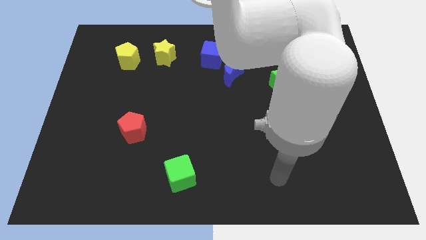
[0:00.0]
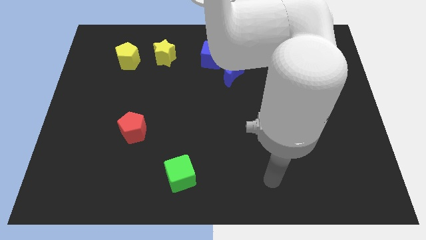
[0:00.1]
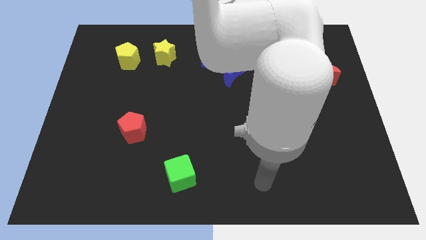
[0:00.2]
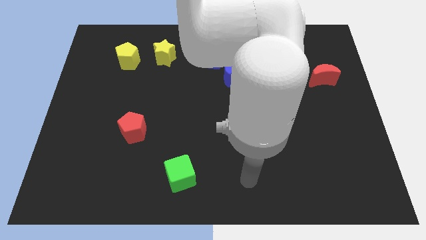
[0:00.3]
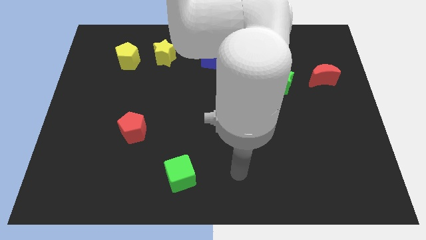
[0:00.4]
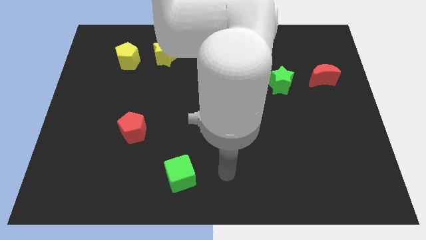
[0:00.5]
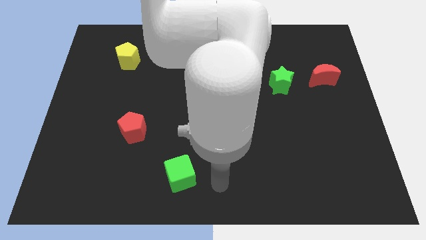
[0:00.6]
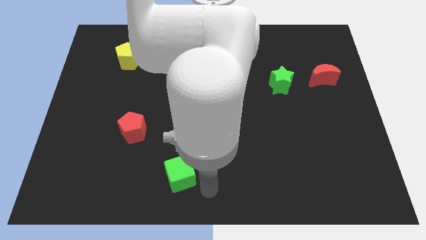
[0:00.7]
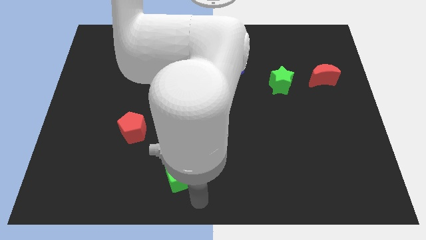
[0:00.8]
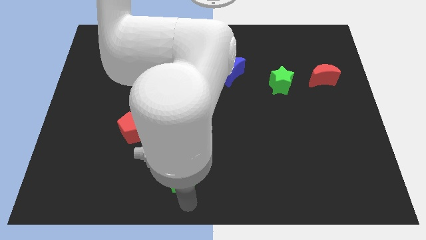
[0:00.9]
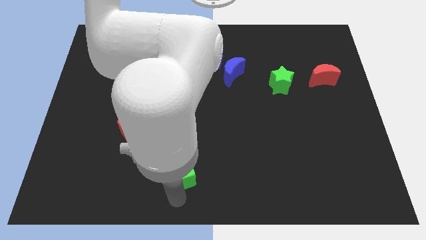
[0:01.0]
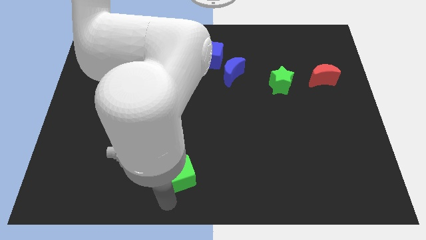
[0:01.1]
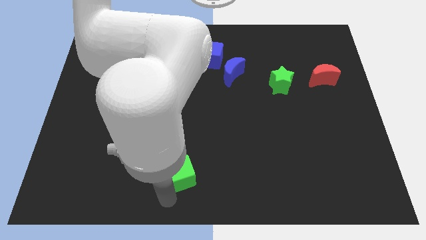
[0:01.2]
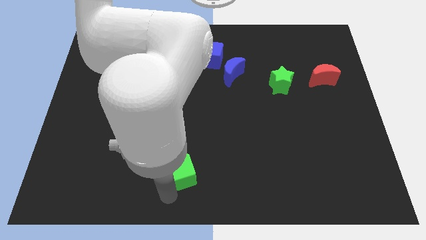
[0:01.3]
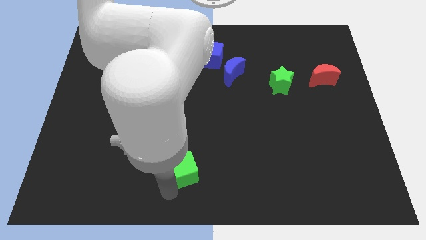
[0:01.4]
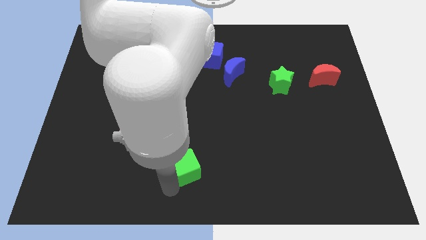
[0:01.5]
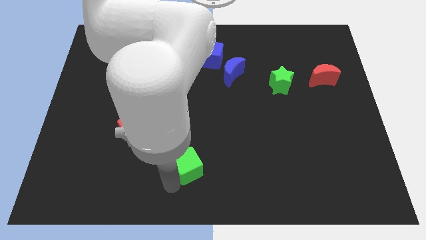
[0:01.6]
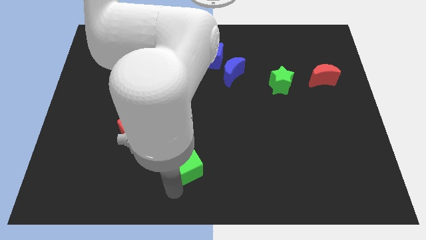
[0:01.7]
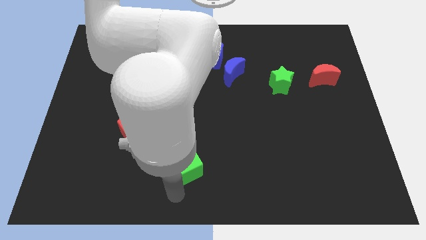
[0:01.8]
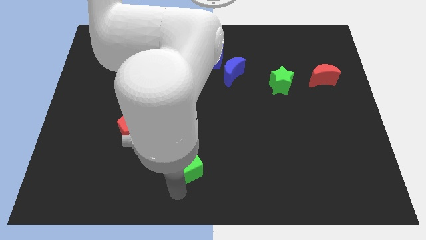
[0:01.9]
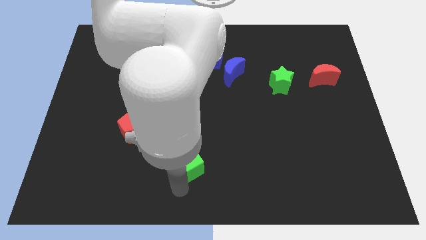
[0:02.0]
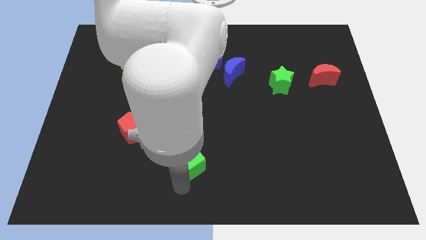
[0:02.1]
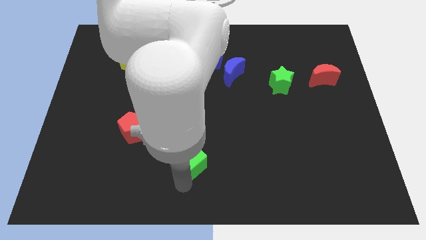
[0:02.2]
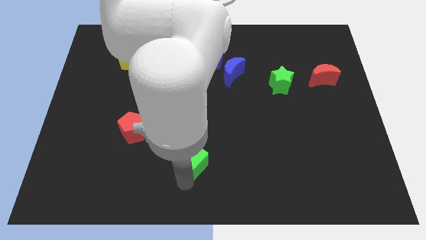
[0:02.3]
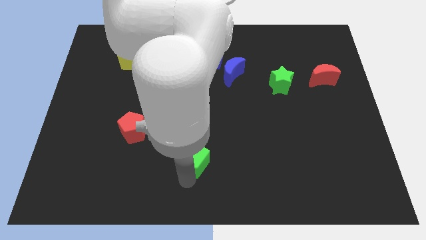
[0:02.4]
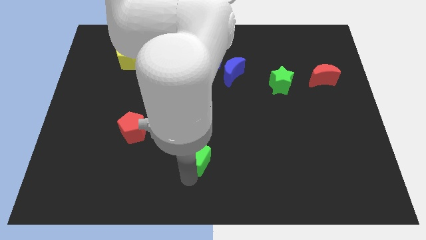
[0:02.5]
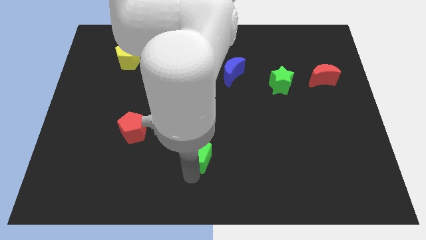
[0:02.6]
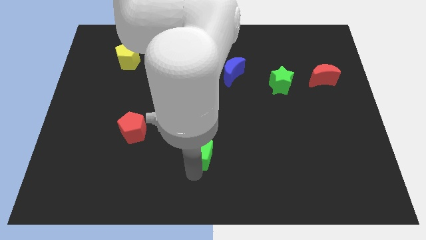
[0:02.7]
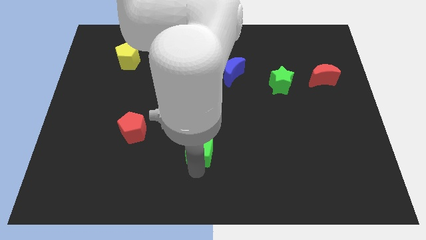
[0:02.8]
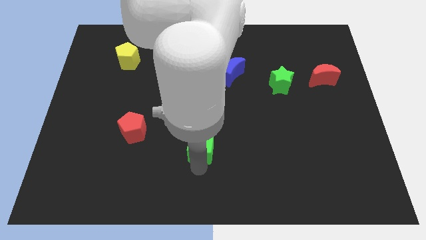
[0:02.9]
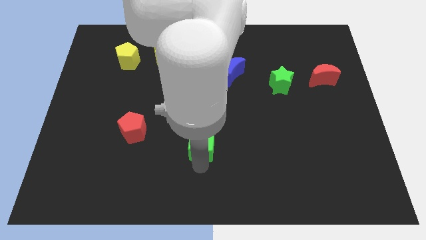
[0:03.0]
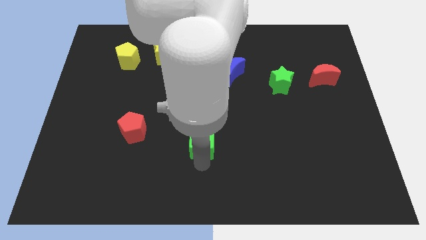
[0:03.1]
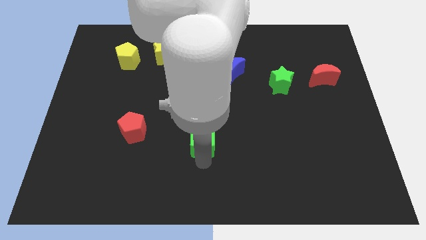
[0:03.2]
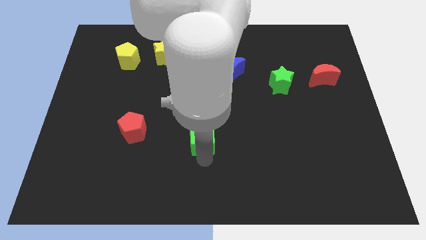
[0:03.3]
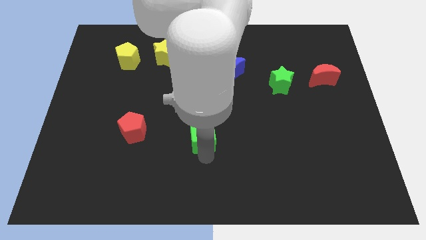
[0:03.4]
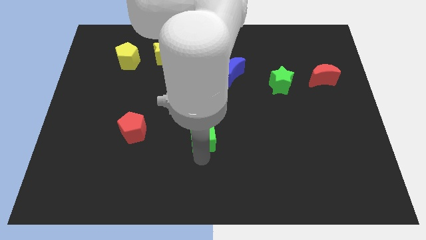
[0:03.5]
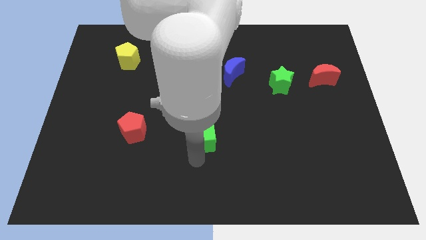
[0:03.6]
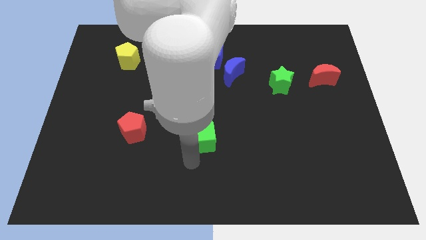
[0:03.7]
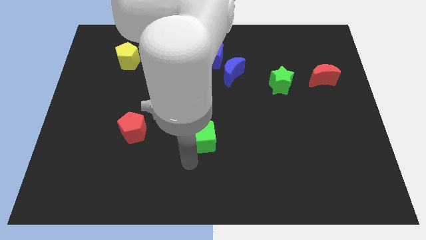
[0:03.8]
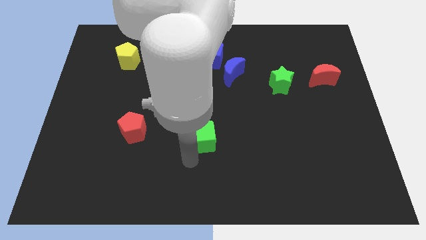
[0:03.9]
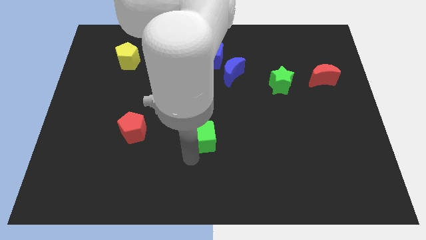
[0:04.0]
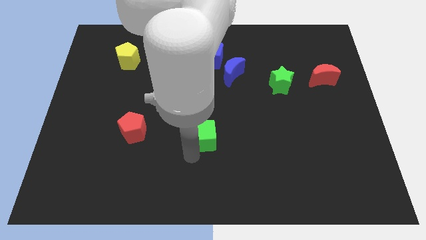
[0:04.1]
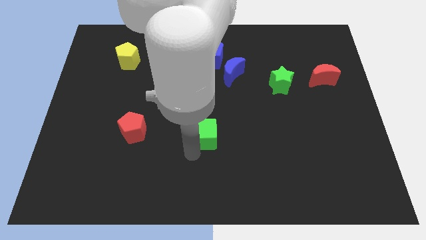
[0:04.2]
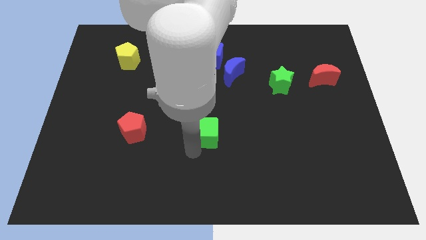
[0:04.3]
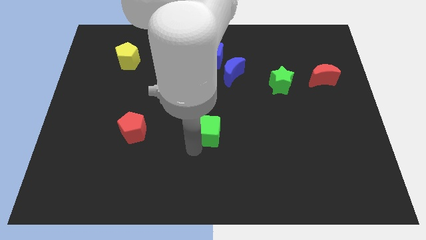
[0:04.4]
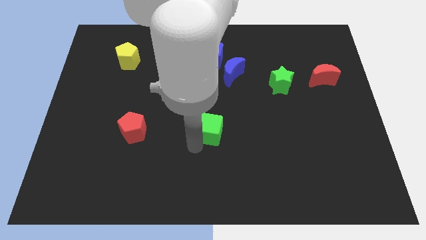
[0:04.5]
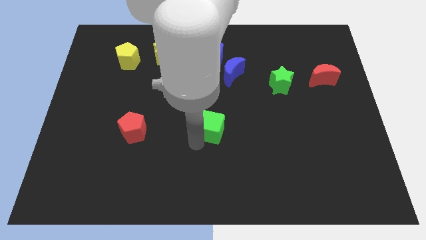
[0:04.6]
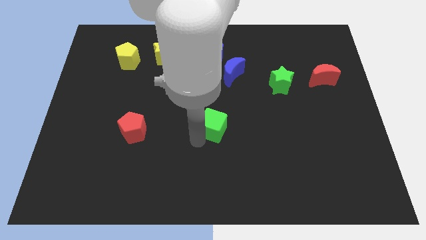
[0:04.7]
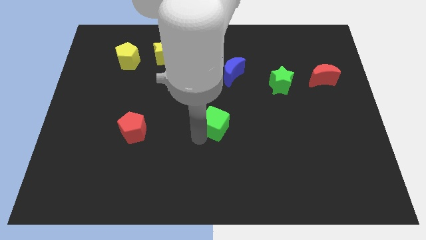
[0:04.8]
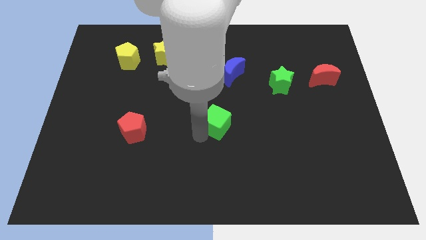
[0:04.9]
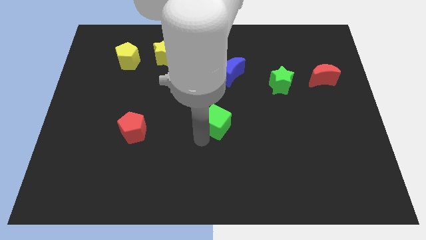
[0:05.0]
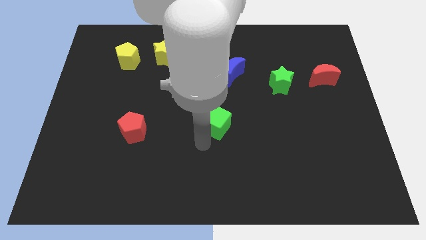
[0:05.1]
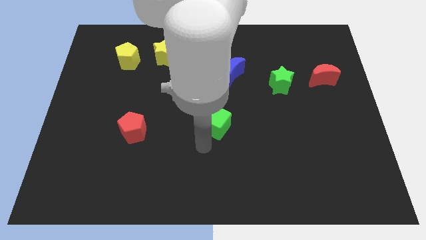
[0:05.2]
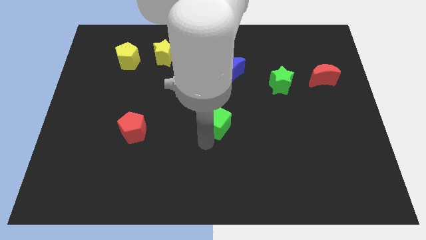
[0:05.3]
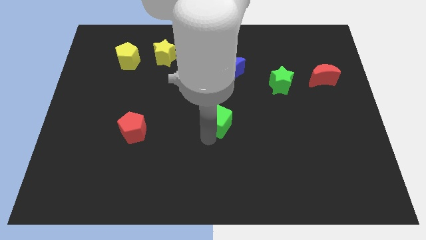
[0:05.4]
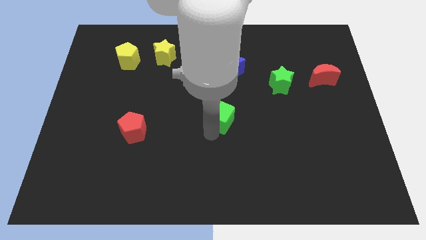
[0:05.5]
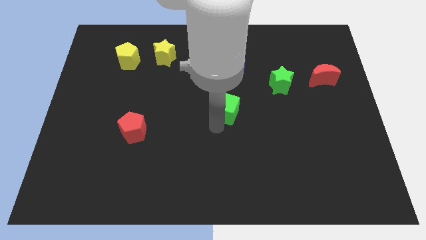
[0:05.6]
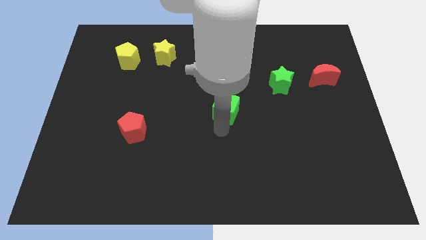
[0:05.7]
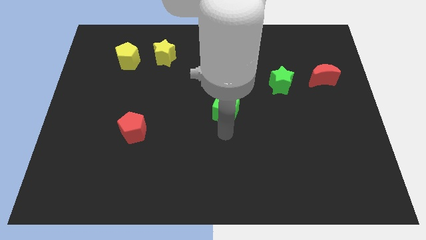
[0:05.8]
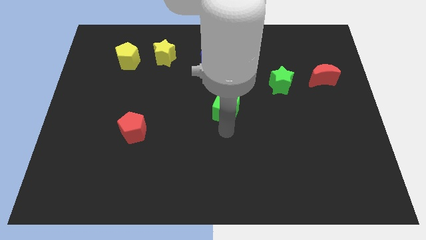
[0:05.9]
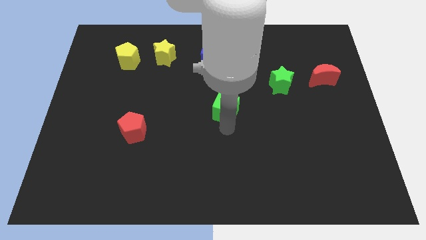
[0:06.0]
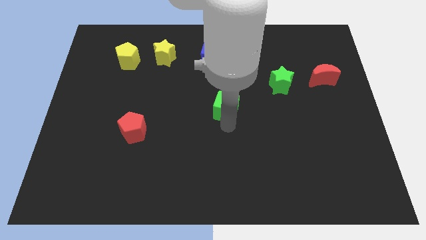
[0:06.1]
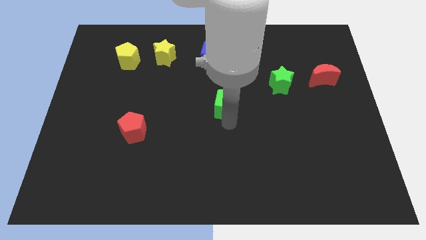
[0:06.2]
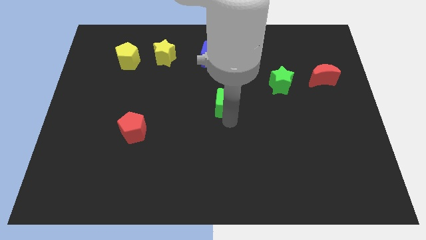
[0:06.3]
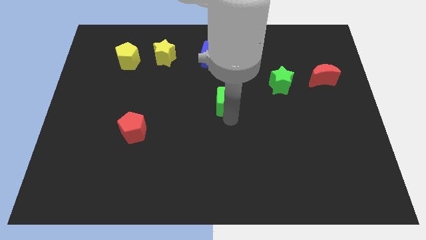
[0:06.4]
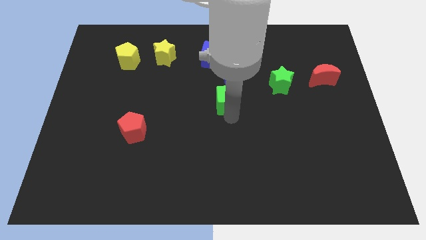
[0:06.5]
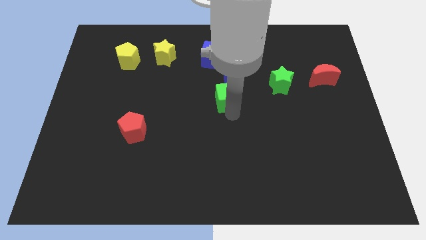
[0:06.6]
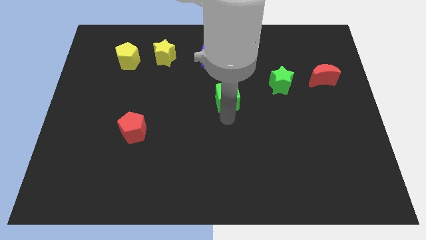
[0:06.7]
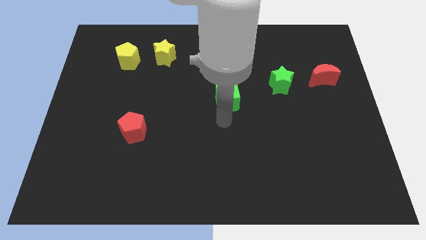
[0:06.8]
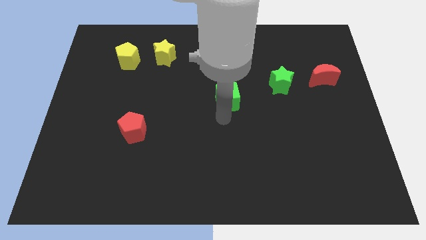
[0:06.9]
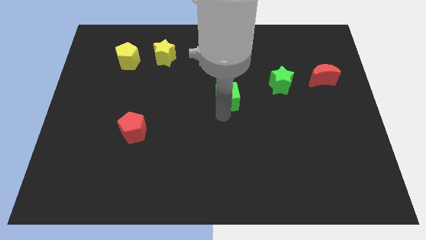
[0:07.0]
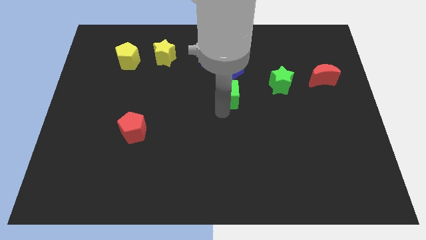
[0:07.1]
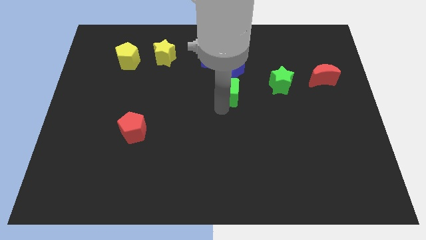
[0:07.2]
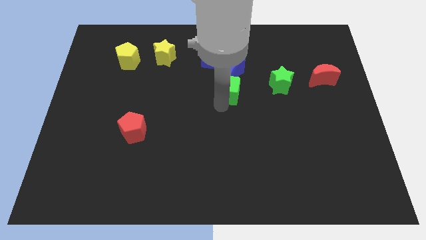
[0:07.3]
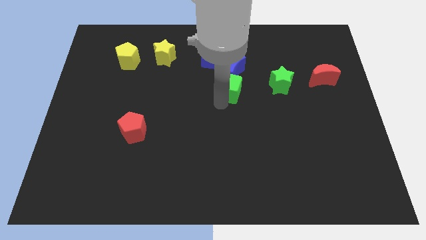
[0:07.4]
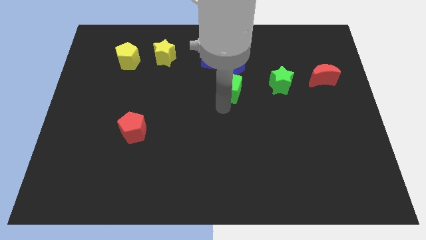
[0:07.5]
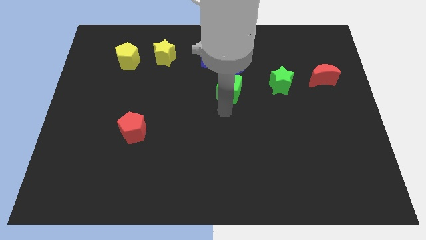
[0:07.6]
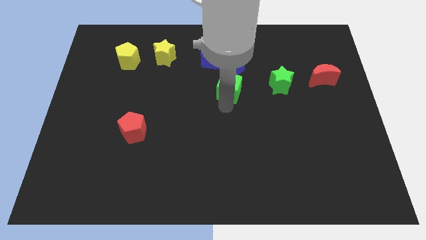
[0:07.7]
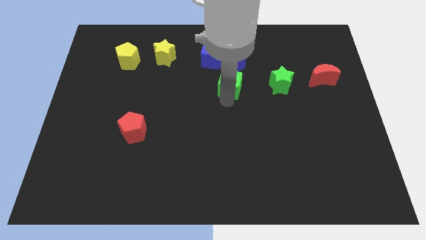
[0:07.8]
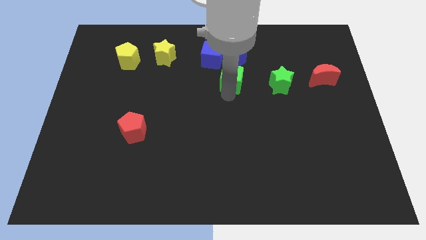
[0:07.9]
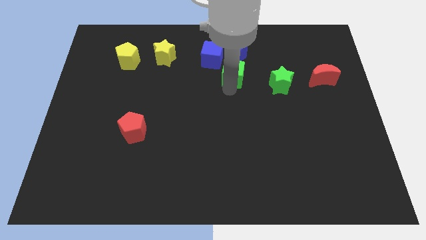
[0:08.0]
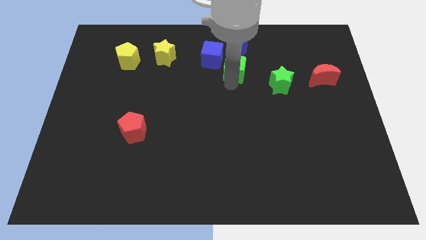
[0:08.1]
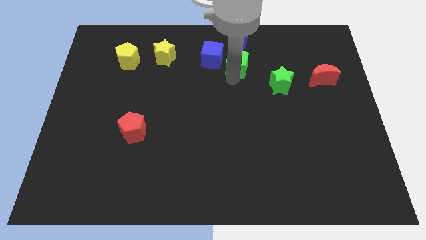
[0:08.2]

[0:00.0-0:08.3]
move the green cube to the blue moon
